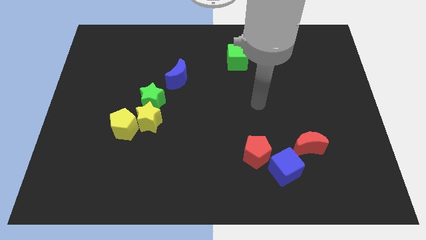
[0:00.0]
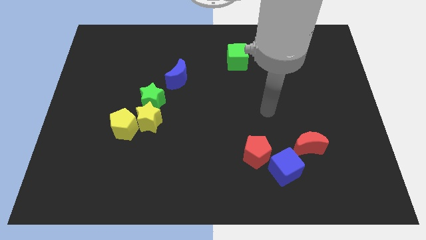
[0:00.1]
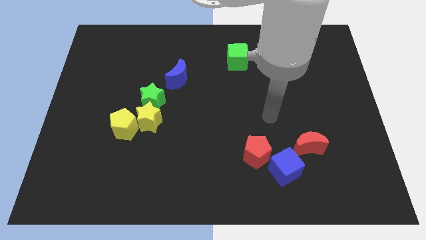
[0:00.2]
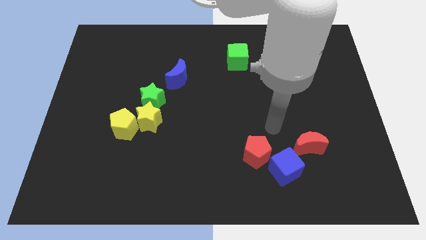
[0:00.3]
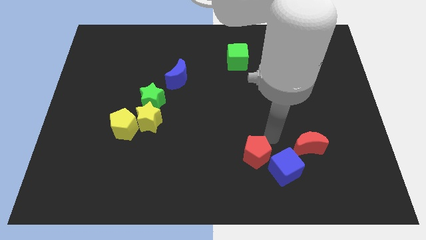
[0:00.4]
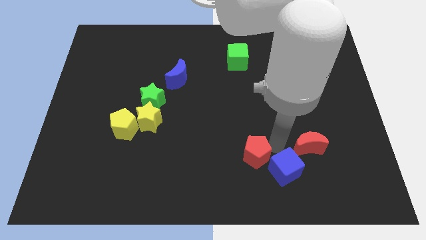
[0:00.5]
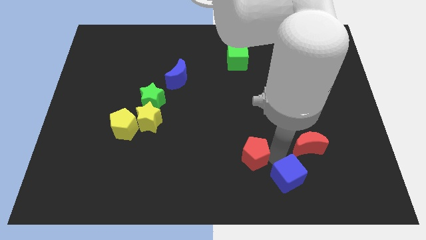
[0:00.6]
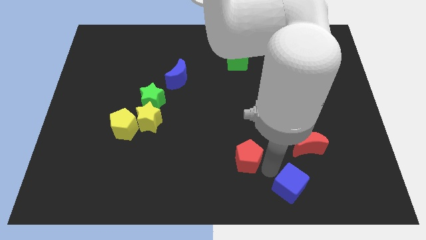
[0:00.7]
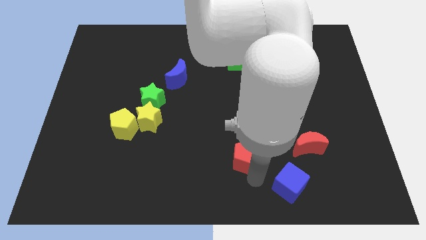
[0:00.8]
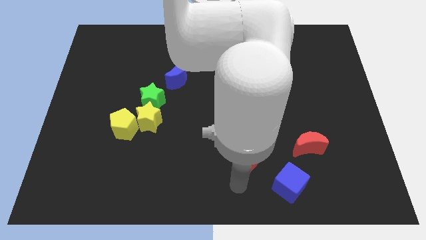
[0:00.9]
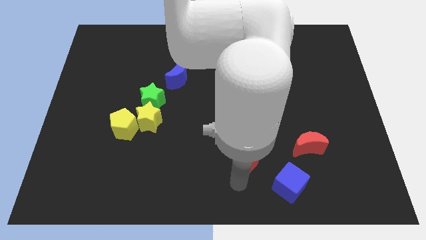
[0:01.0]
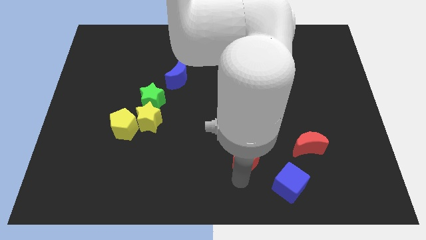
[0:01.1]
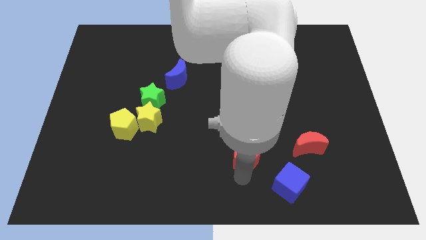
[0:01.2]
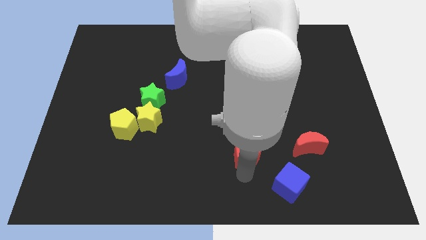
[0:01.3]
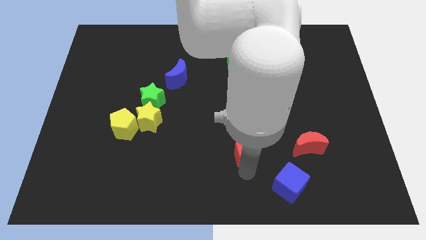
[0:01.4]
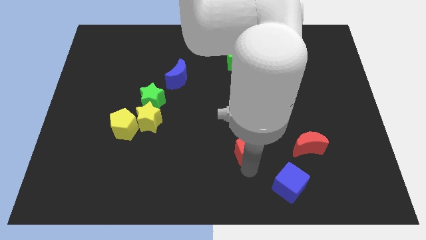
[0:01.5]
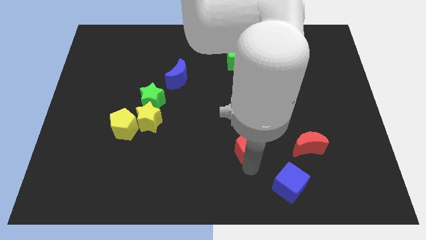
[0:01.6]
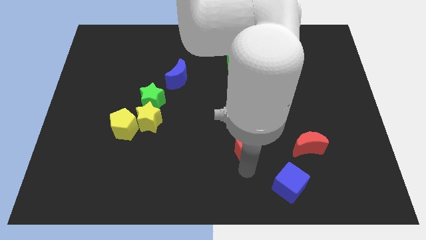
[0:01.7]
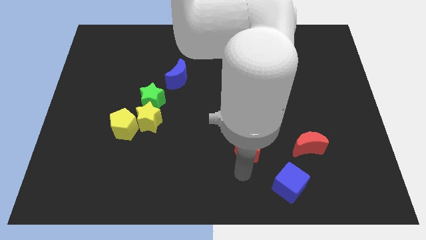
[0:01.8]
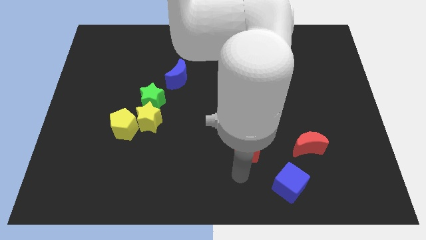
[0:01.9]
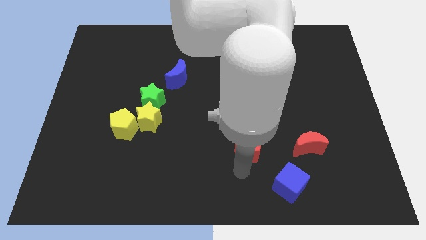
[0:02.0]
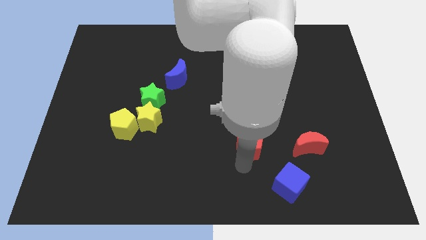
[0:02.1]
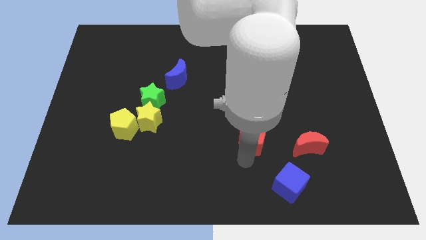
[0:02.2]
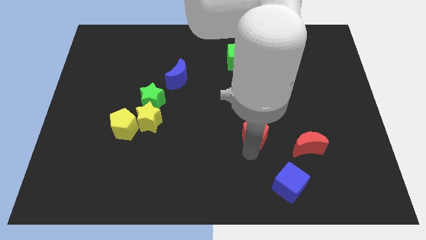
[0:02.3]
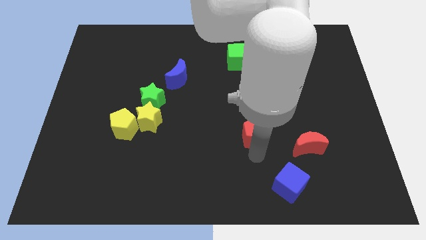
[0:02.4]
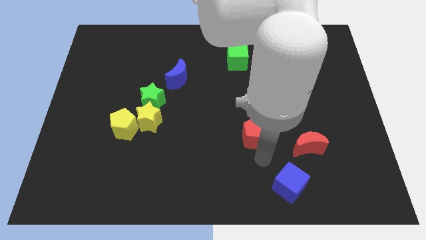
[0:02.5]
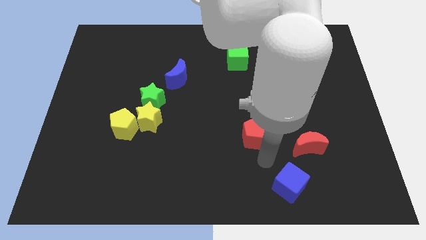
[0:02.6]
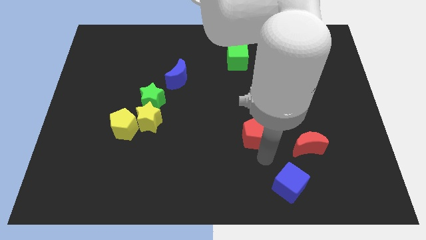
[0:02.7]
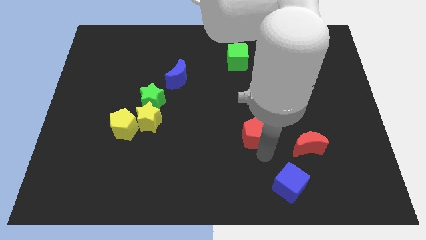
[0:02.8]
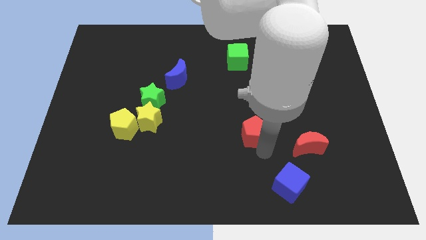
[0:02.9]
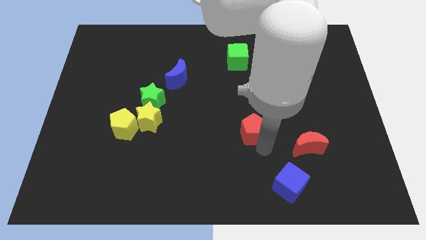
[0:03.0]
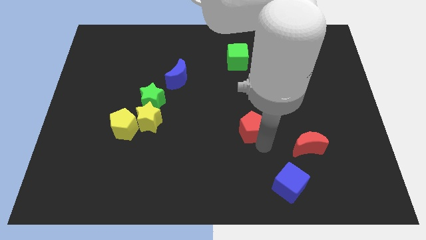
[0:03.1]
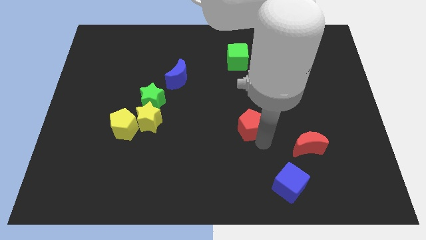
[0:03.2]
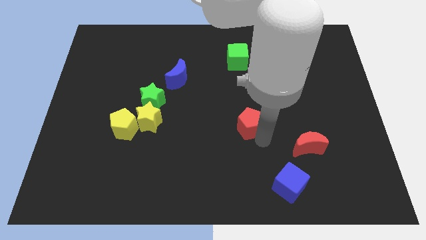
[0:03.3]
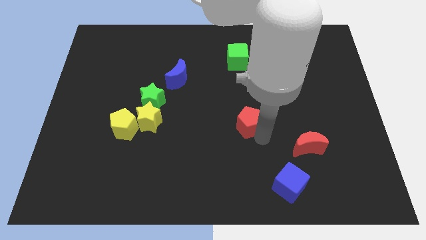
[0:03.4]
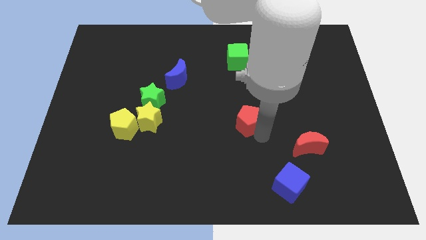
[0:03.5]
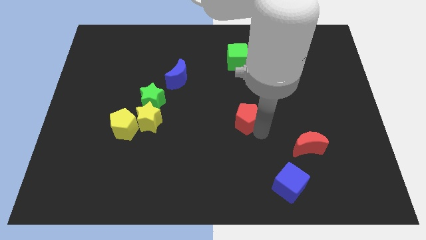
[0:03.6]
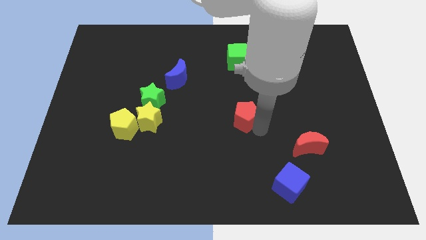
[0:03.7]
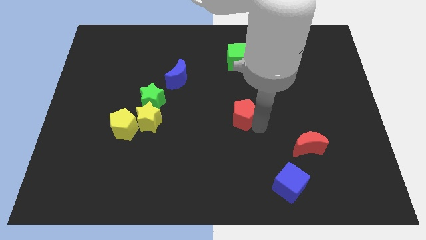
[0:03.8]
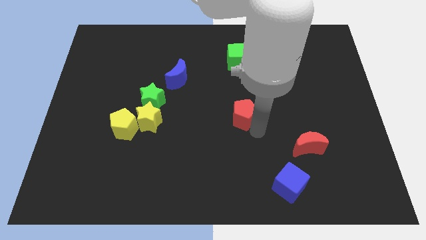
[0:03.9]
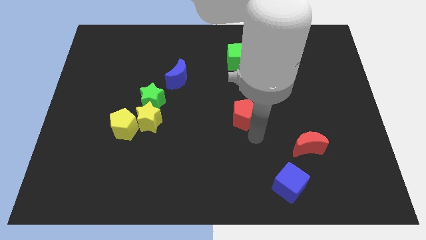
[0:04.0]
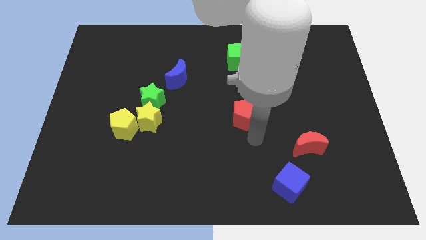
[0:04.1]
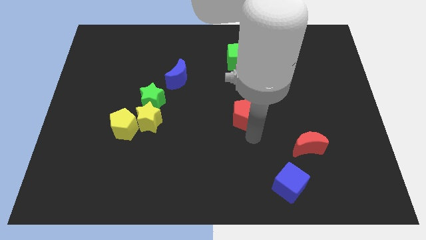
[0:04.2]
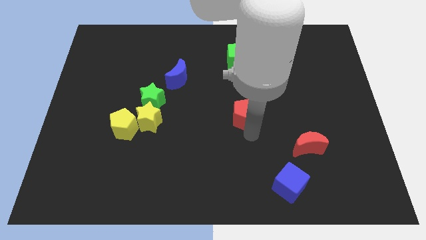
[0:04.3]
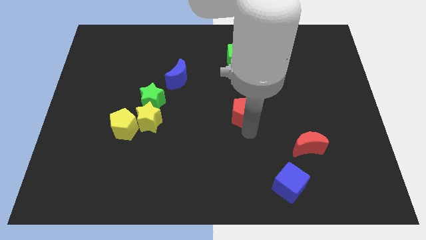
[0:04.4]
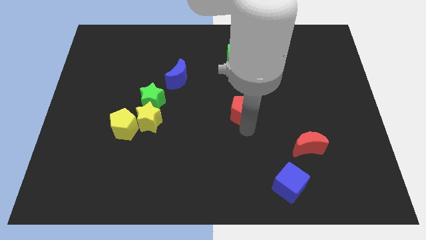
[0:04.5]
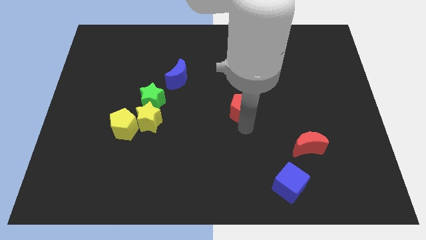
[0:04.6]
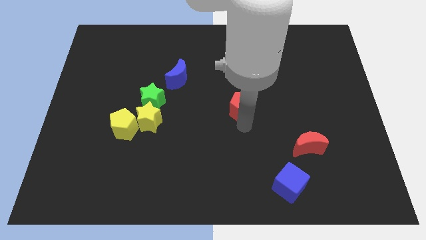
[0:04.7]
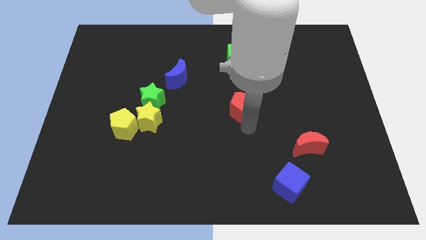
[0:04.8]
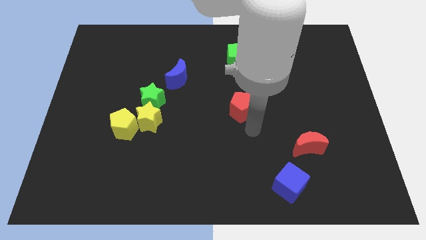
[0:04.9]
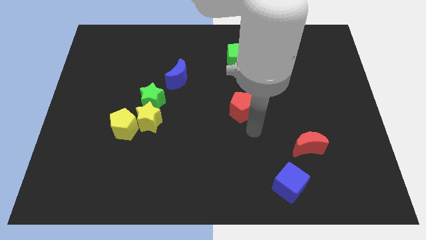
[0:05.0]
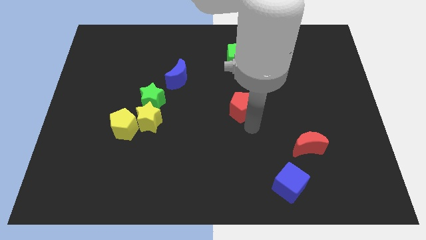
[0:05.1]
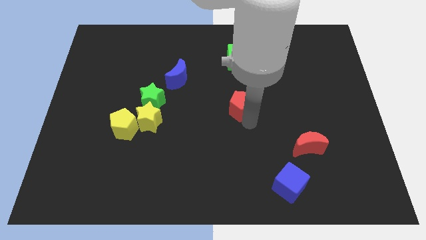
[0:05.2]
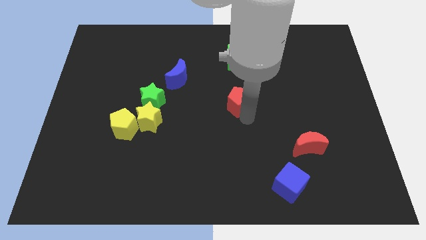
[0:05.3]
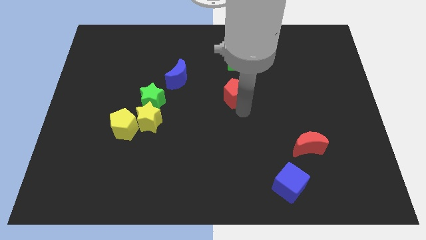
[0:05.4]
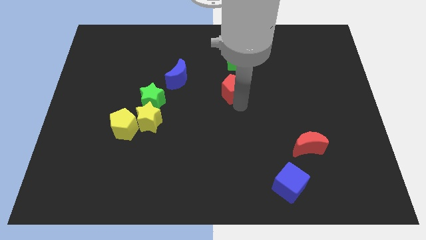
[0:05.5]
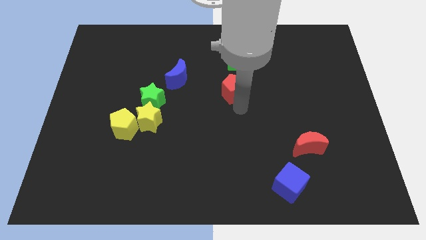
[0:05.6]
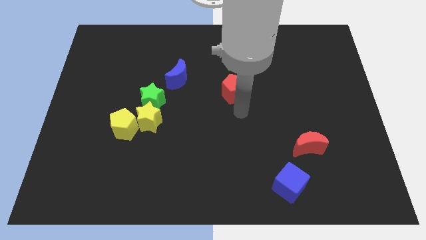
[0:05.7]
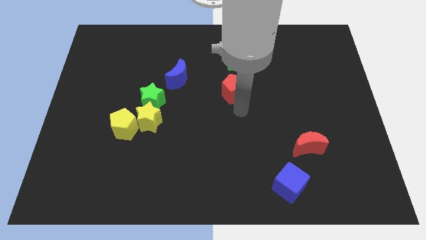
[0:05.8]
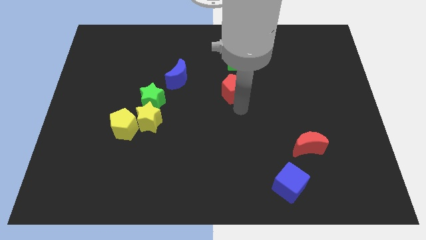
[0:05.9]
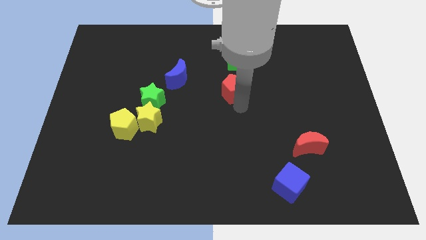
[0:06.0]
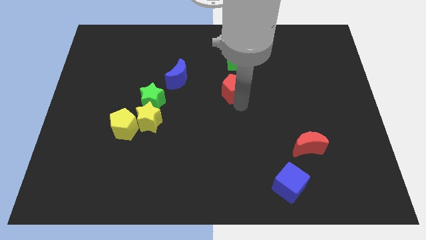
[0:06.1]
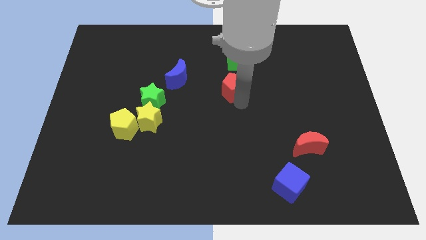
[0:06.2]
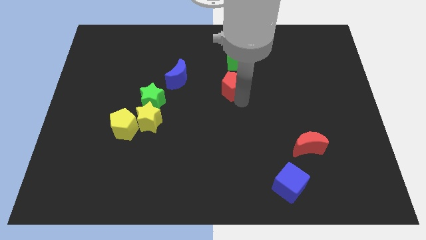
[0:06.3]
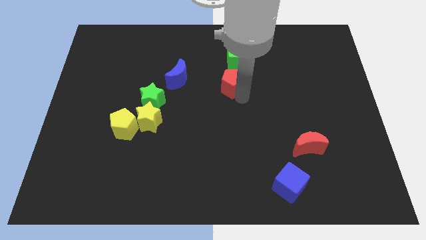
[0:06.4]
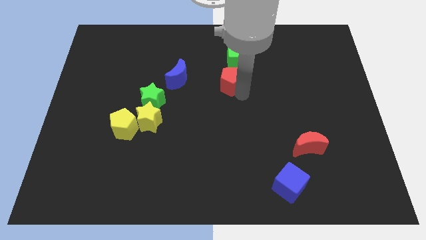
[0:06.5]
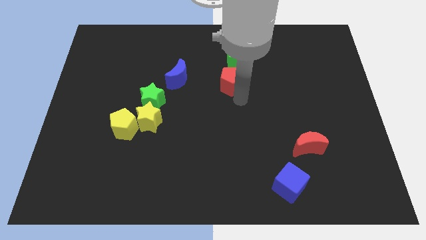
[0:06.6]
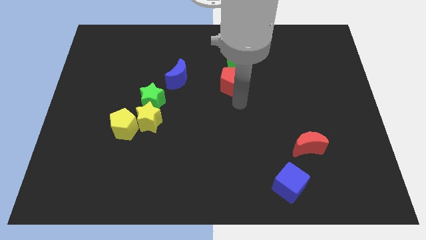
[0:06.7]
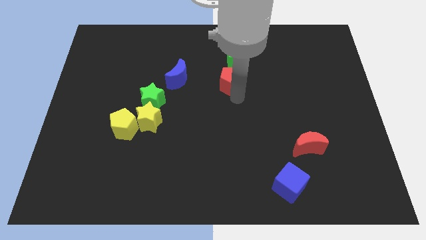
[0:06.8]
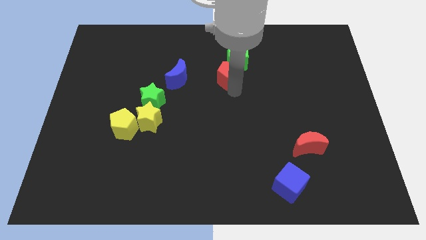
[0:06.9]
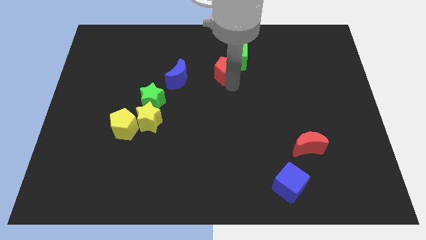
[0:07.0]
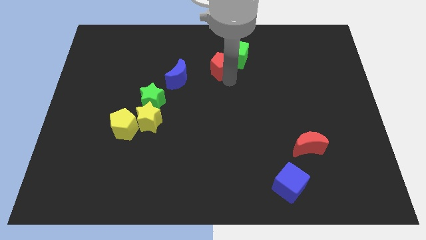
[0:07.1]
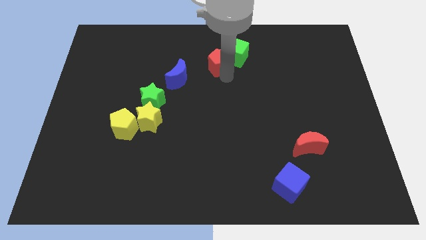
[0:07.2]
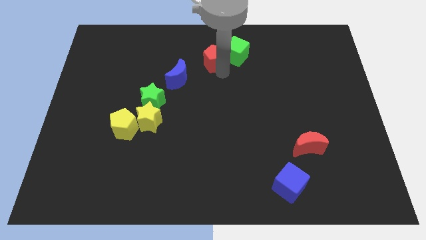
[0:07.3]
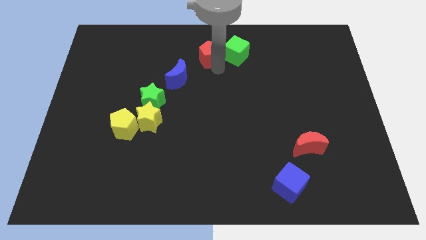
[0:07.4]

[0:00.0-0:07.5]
slide the red pentagon to the top side
